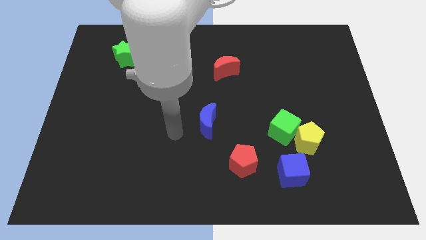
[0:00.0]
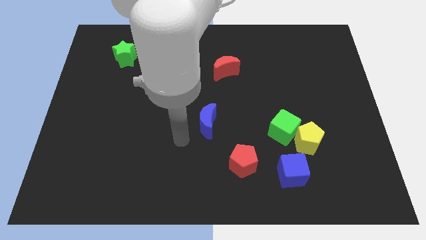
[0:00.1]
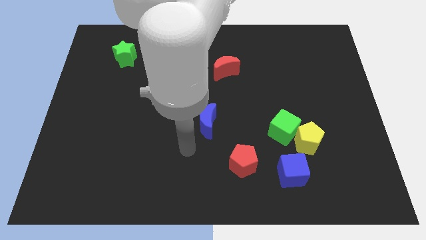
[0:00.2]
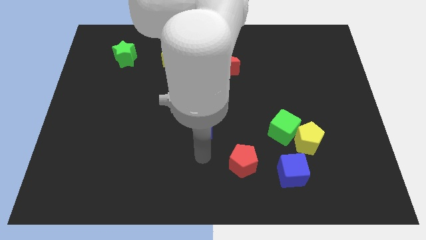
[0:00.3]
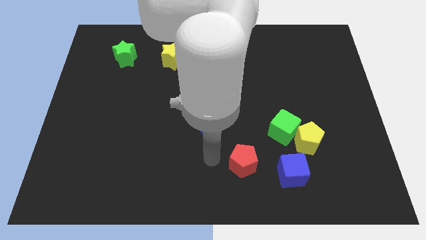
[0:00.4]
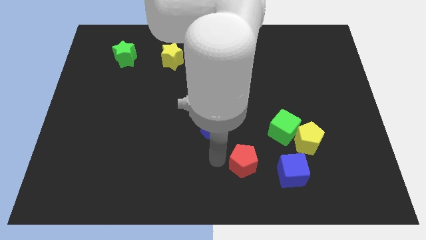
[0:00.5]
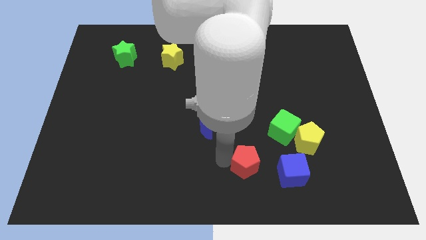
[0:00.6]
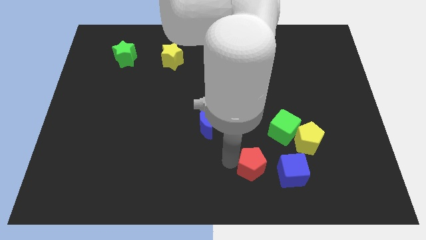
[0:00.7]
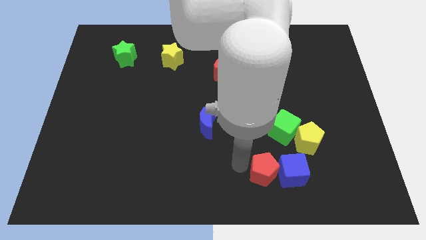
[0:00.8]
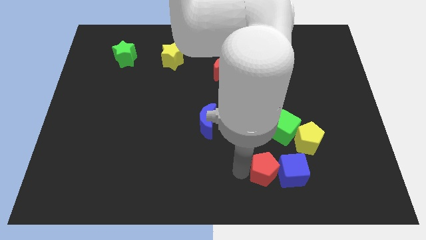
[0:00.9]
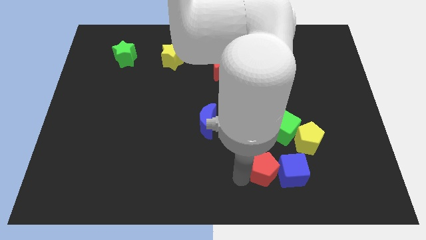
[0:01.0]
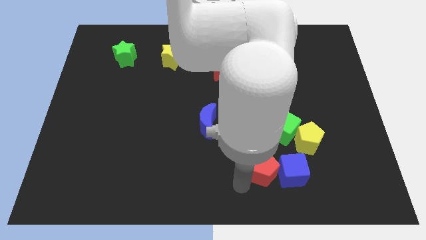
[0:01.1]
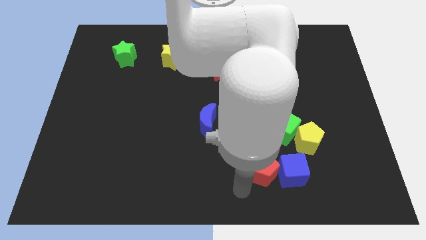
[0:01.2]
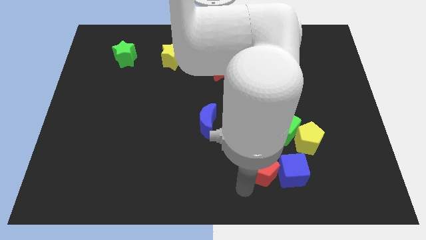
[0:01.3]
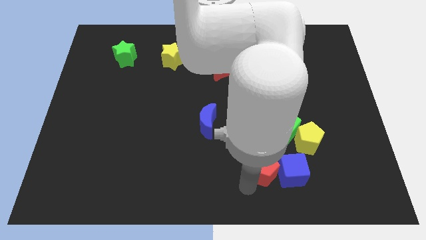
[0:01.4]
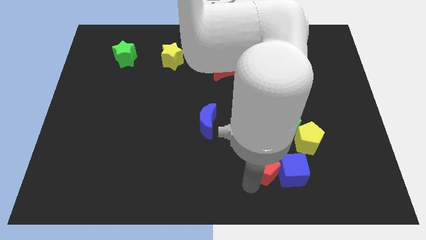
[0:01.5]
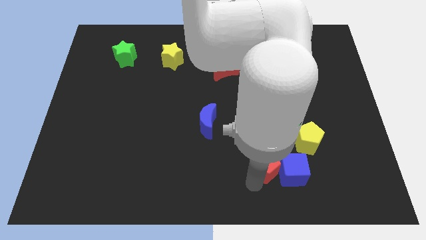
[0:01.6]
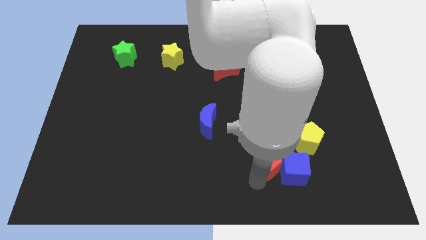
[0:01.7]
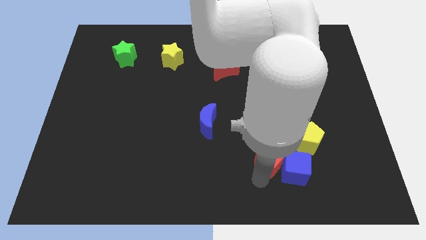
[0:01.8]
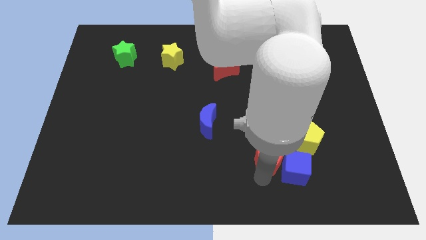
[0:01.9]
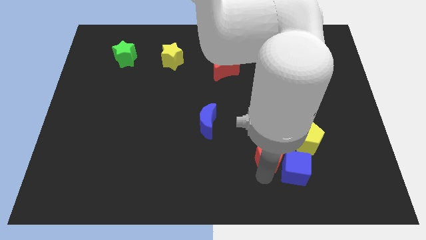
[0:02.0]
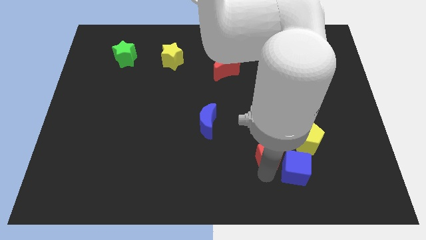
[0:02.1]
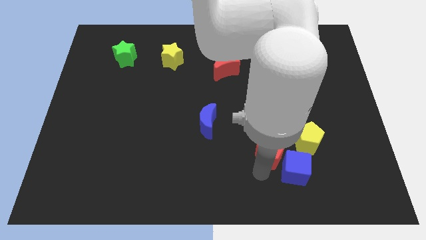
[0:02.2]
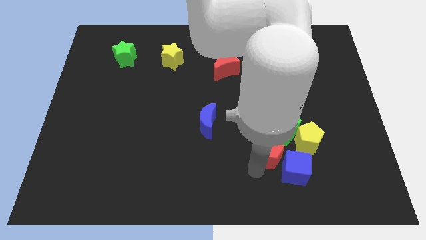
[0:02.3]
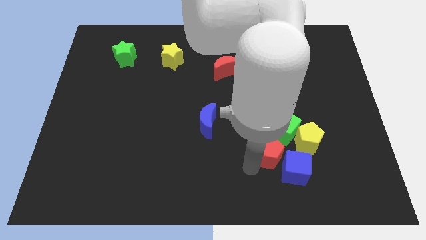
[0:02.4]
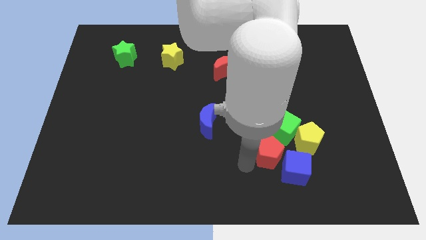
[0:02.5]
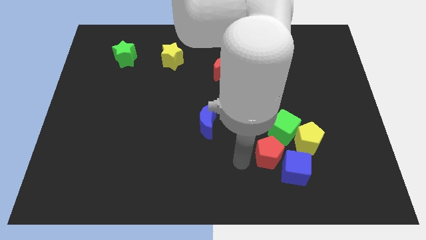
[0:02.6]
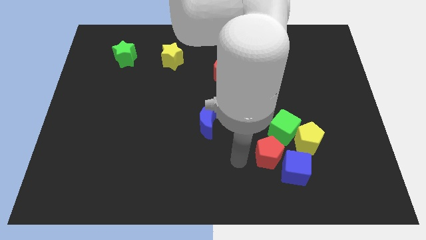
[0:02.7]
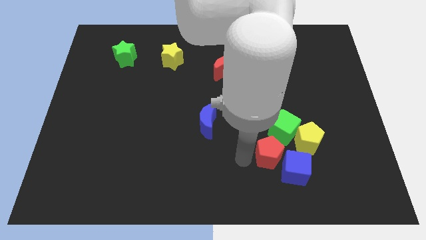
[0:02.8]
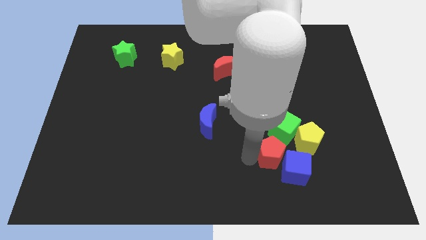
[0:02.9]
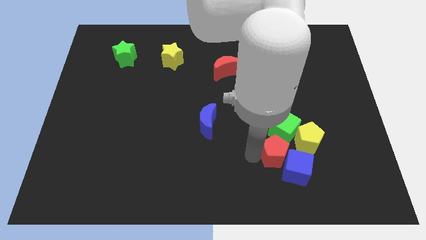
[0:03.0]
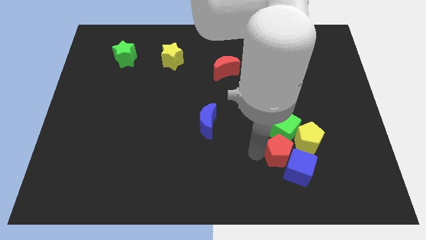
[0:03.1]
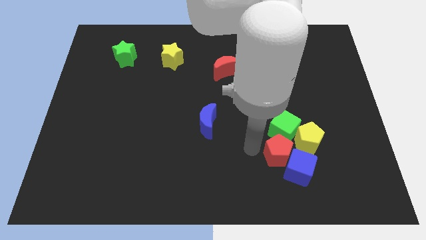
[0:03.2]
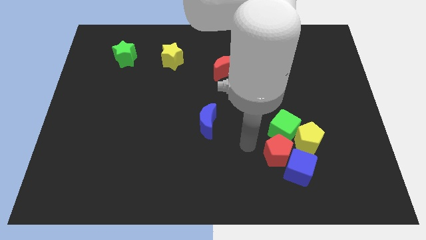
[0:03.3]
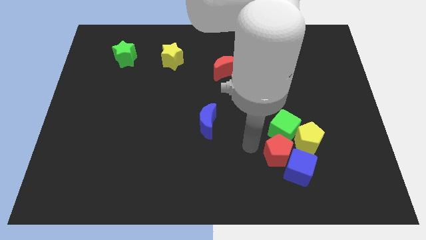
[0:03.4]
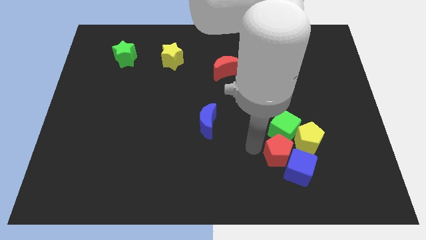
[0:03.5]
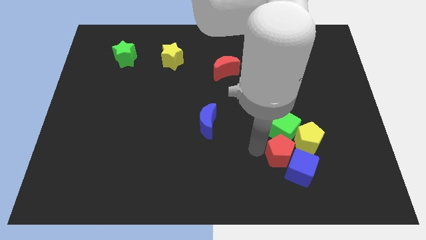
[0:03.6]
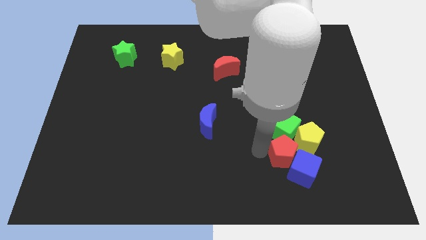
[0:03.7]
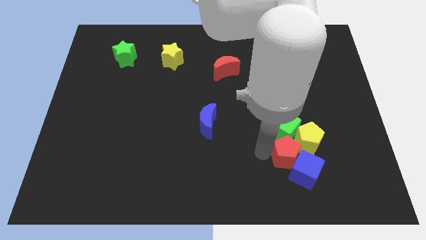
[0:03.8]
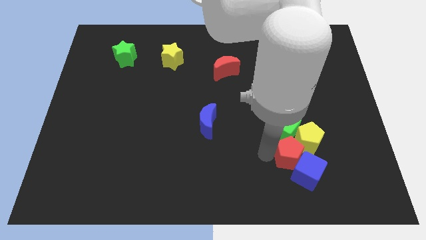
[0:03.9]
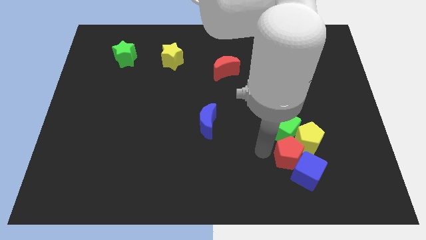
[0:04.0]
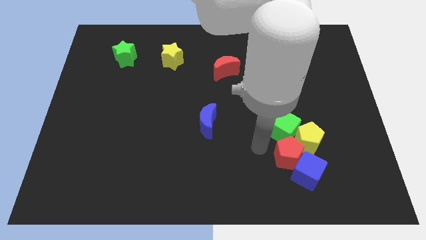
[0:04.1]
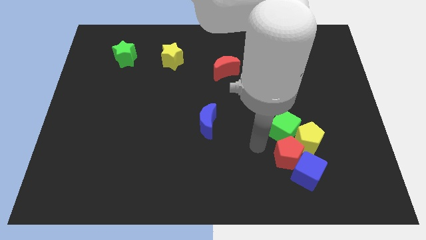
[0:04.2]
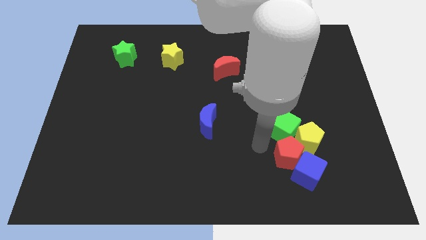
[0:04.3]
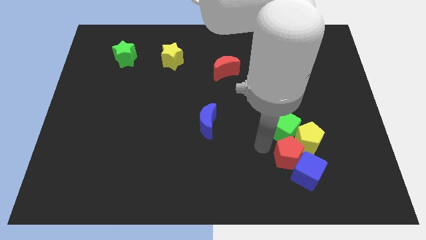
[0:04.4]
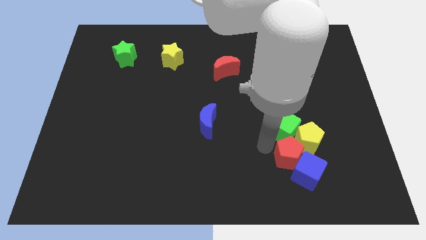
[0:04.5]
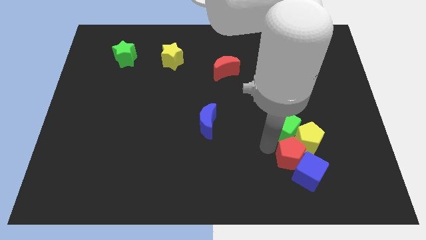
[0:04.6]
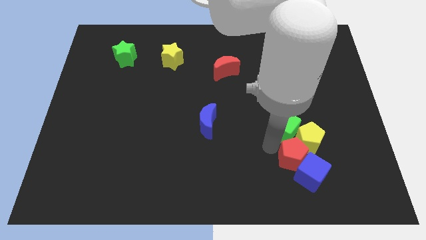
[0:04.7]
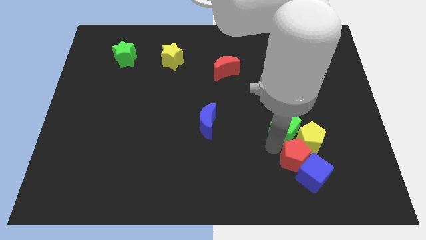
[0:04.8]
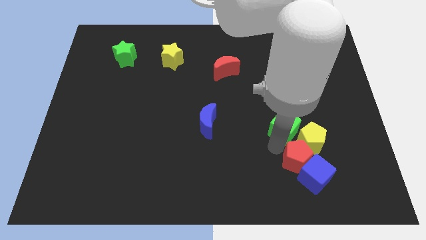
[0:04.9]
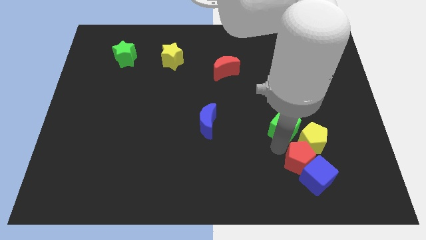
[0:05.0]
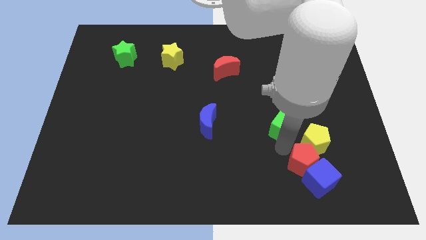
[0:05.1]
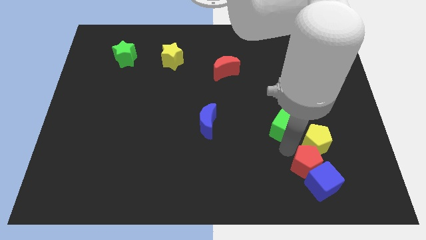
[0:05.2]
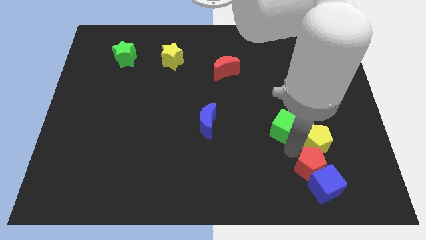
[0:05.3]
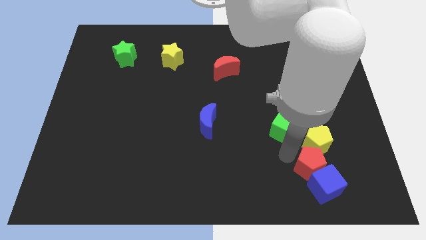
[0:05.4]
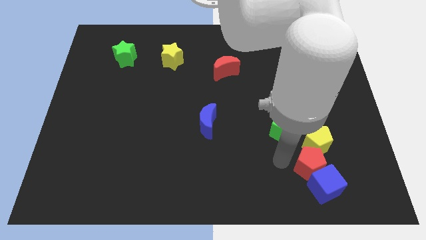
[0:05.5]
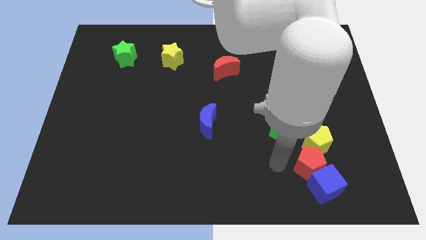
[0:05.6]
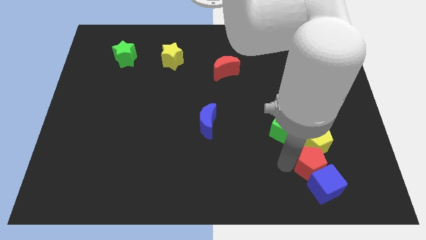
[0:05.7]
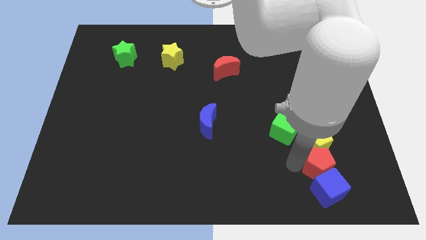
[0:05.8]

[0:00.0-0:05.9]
push the red pentagon to the bottom right of the yellow pentagon
